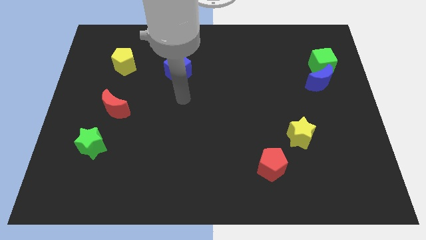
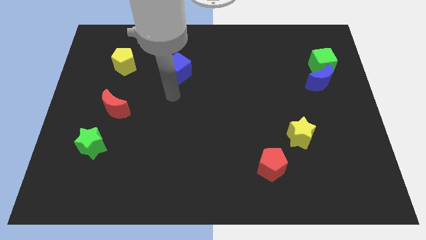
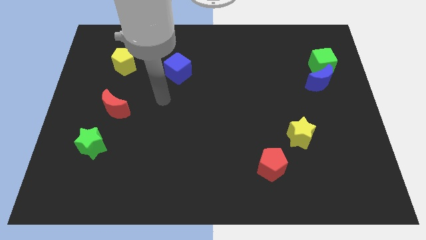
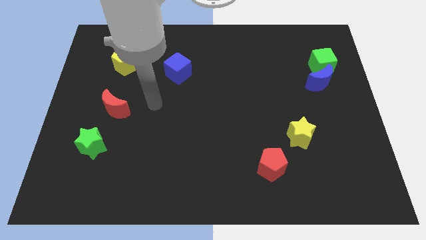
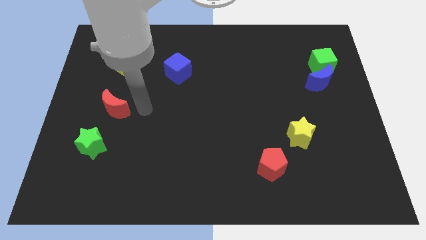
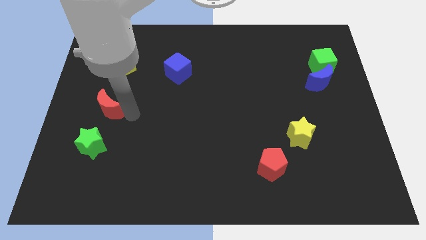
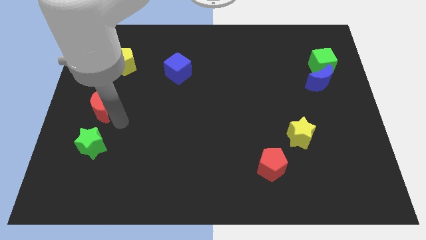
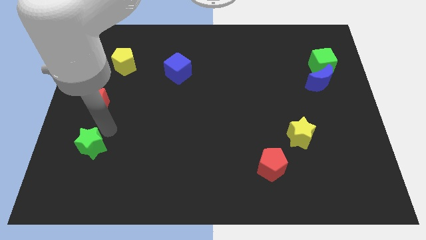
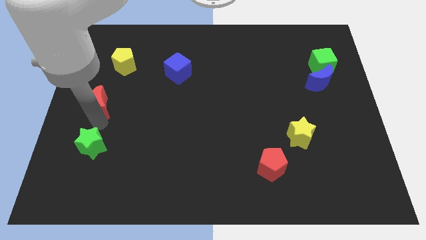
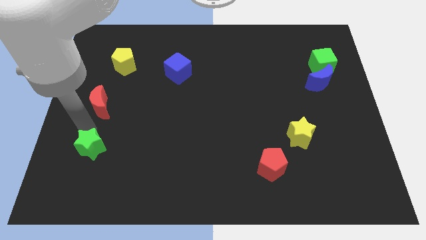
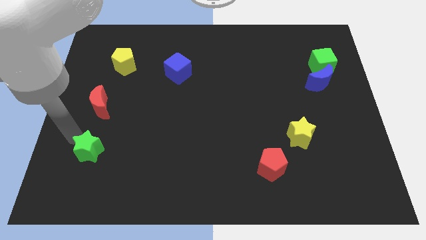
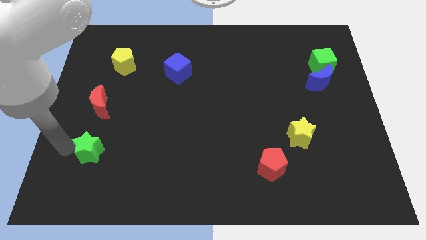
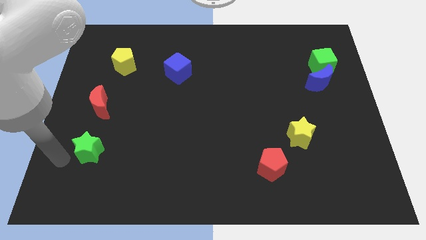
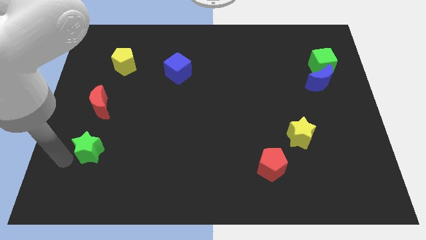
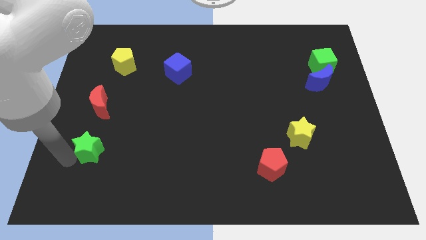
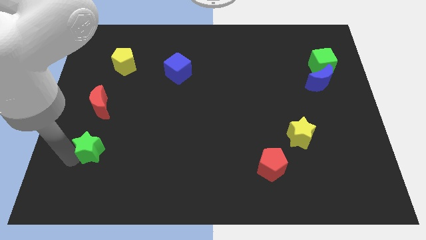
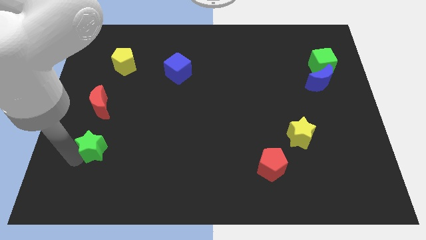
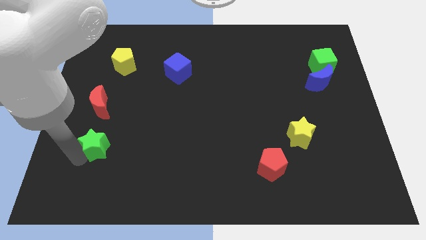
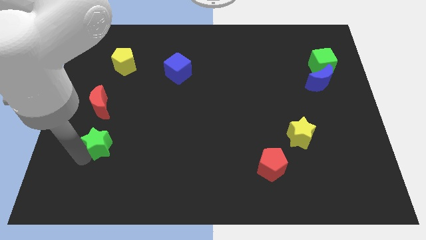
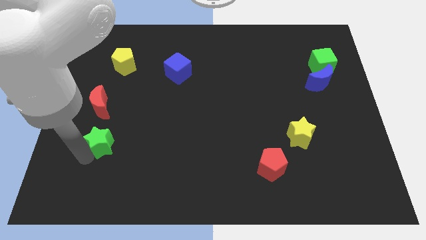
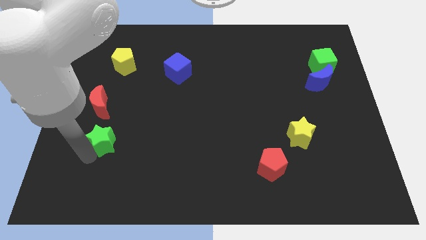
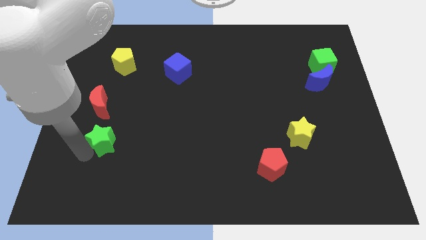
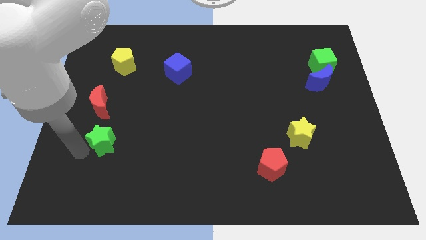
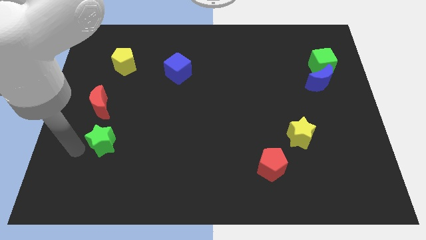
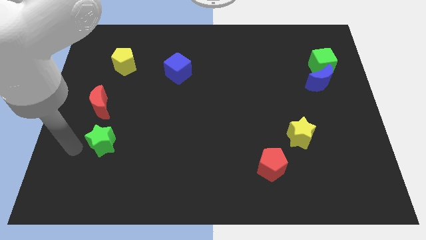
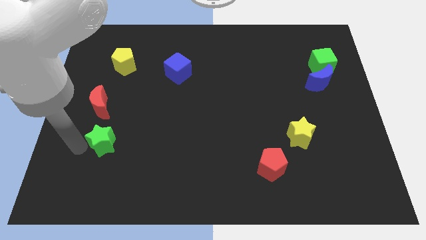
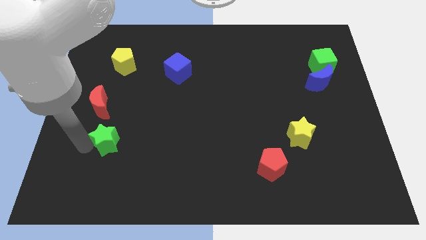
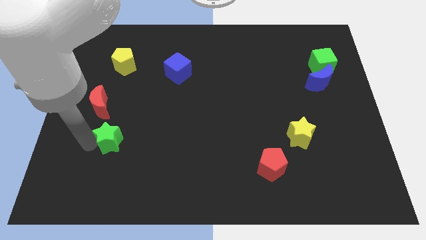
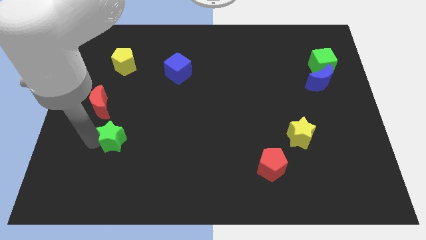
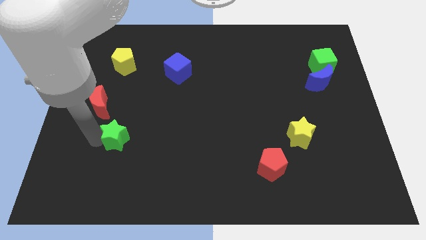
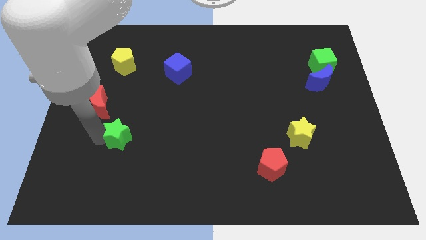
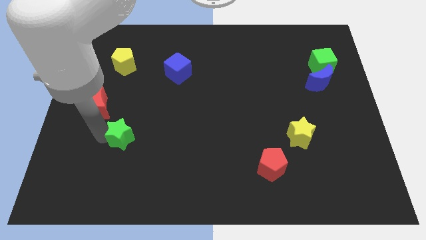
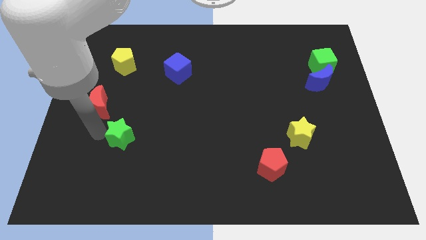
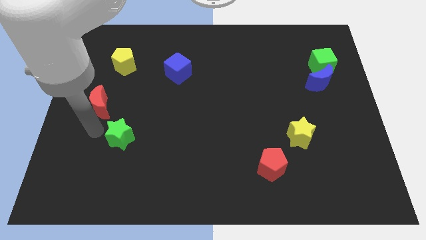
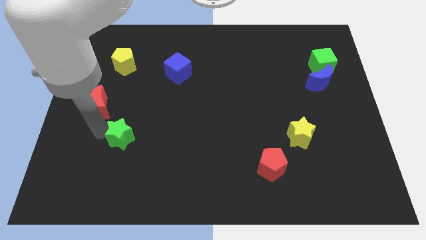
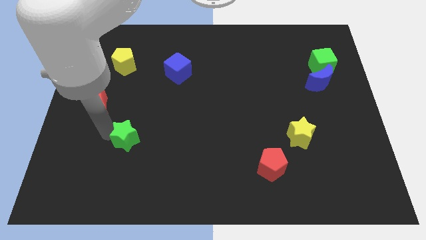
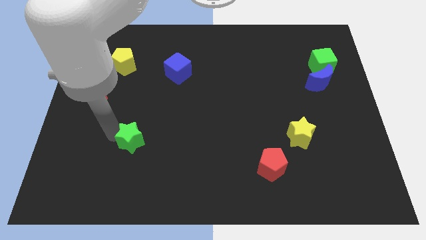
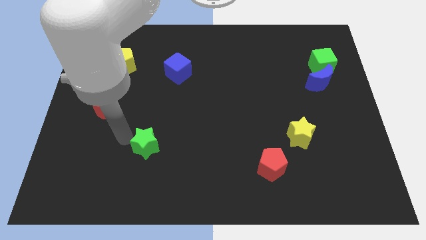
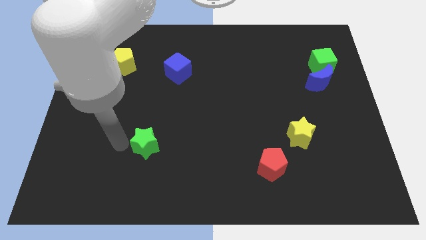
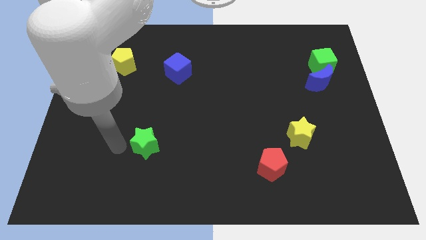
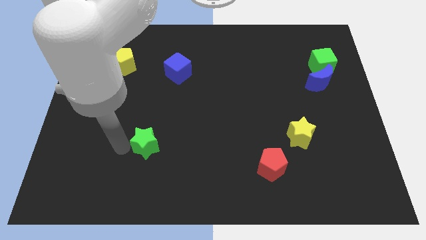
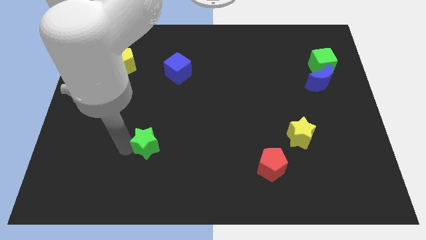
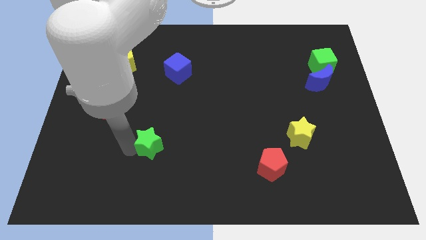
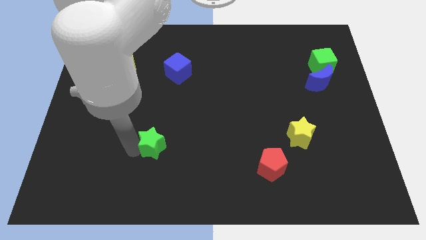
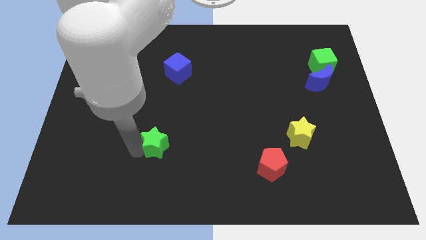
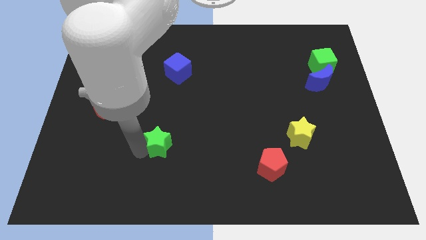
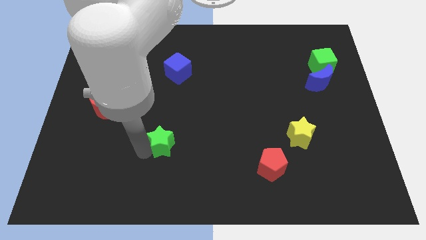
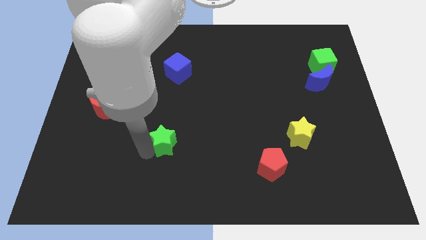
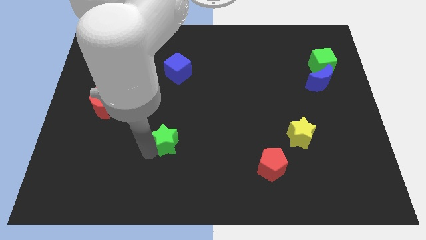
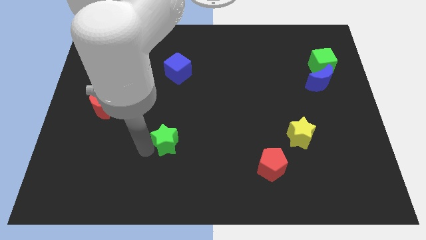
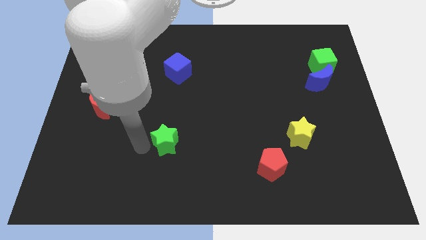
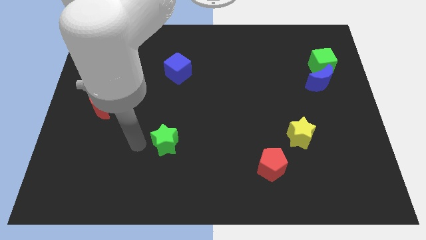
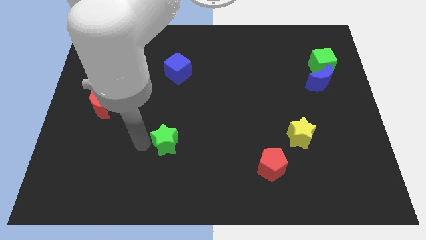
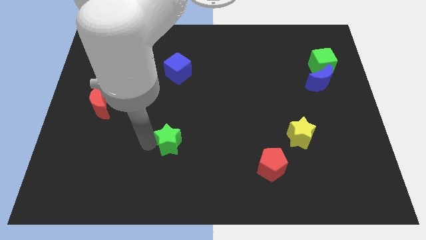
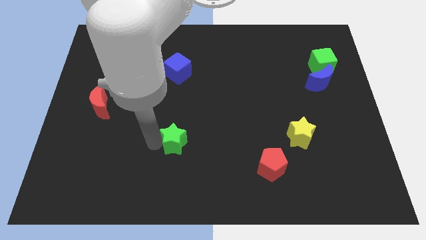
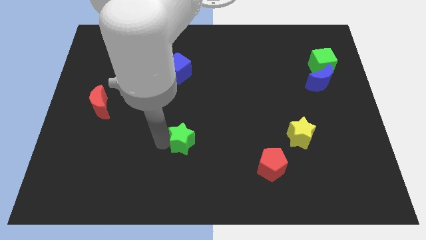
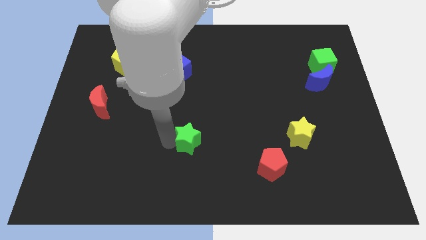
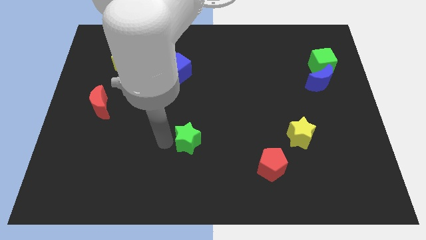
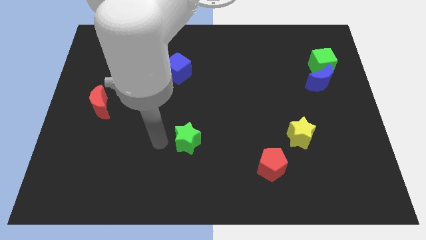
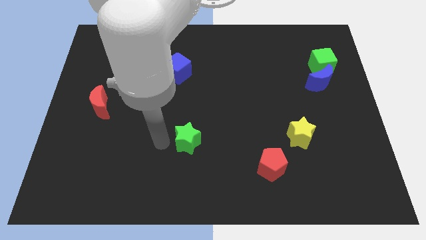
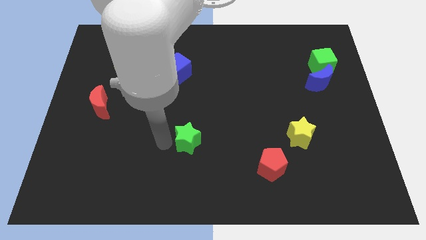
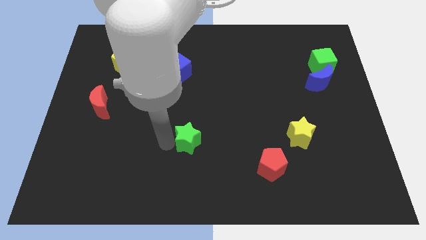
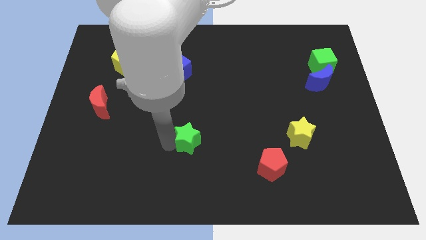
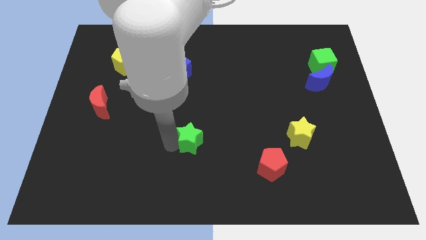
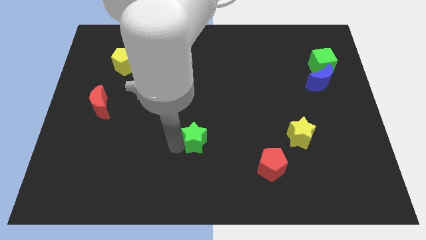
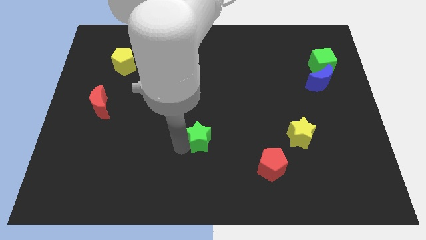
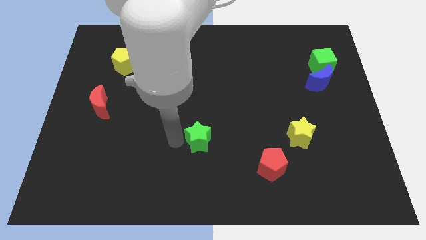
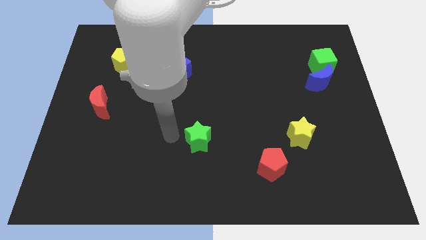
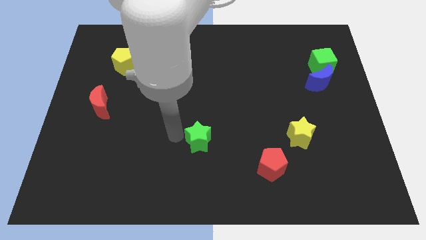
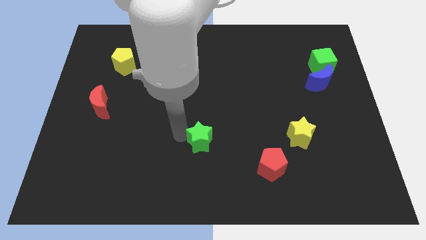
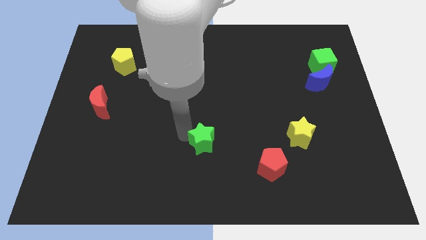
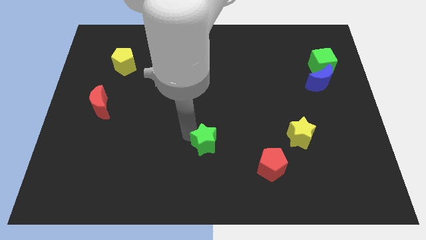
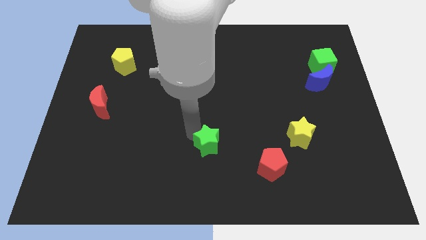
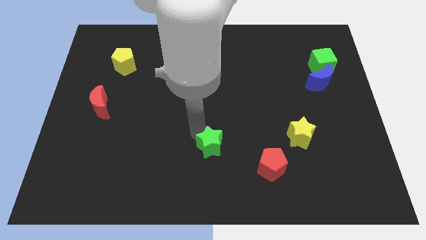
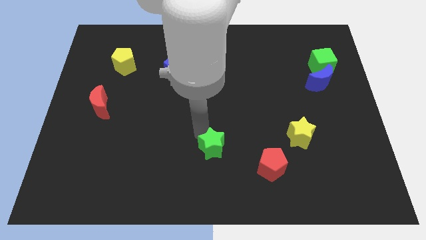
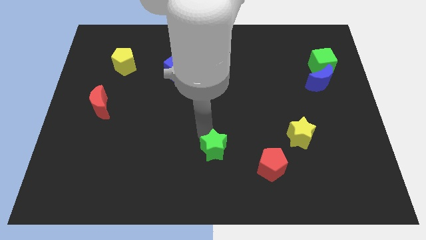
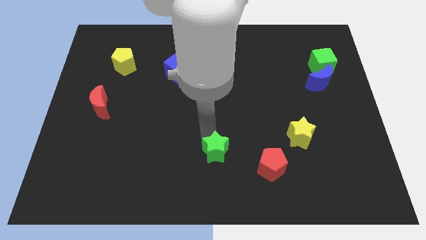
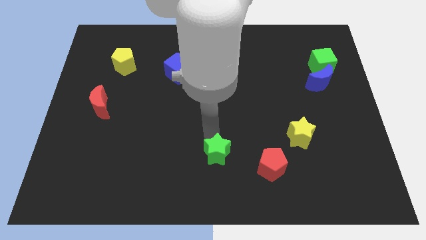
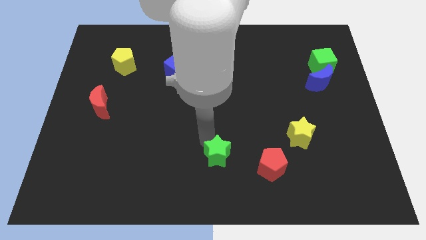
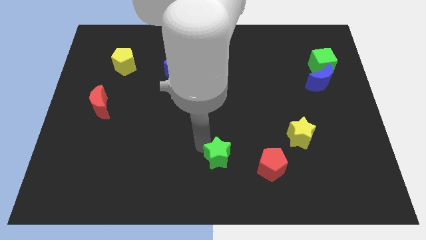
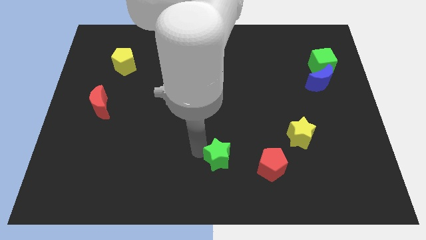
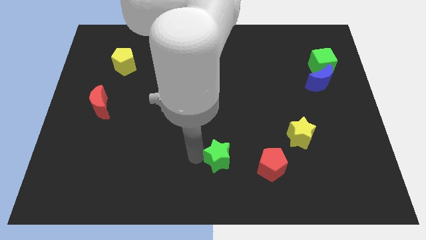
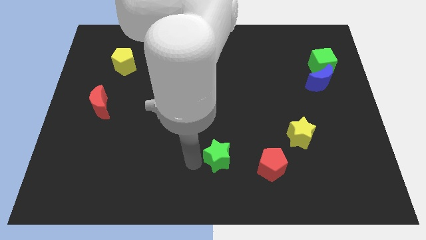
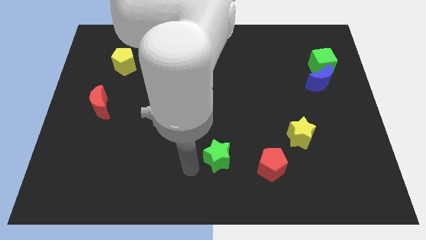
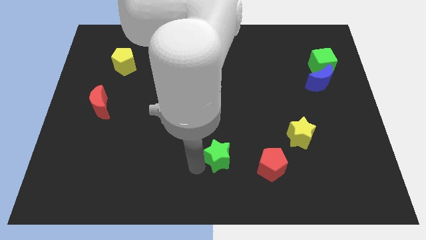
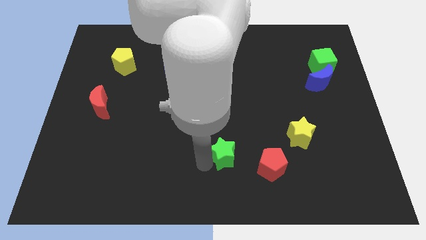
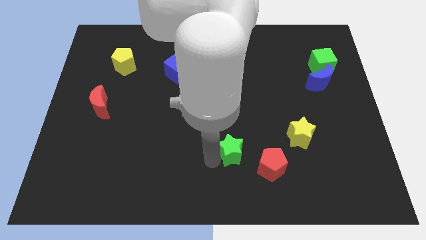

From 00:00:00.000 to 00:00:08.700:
slide the green star diagonally up and to the left of the red pentagon
